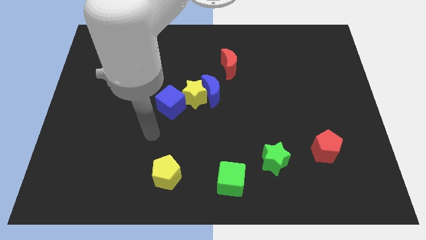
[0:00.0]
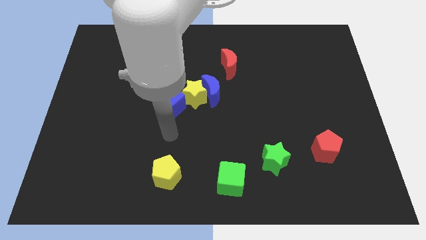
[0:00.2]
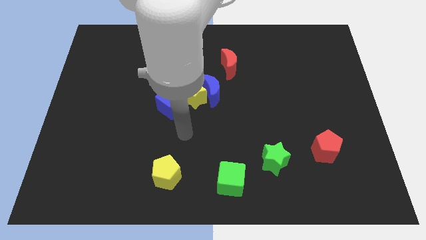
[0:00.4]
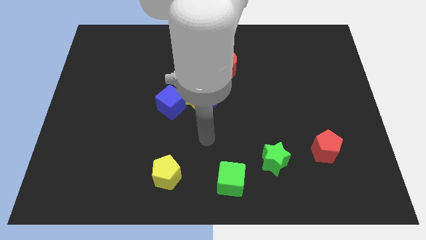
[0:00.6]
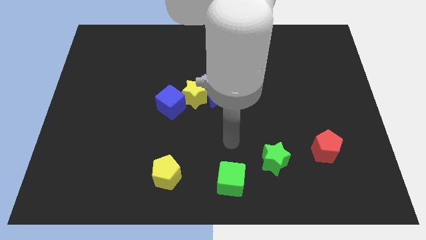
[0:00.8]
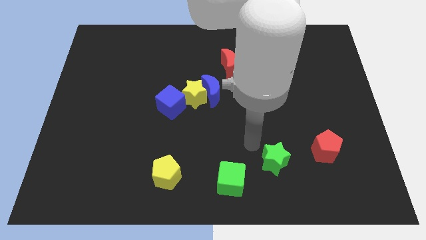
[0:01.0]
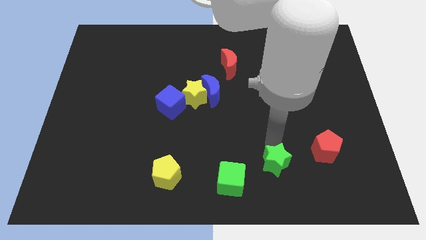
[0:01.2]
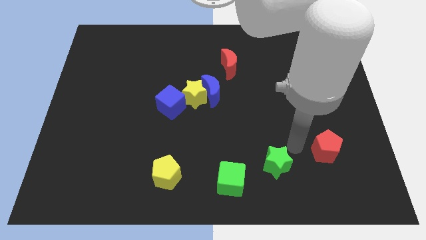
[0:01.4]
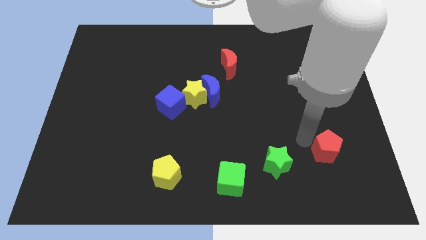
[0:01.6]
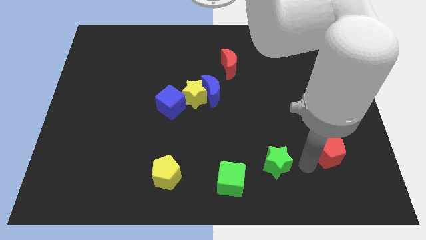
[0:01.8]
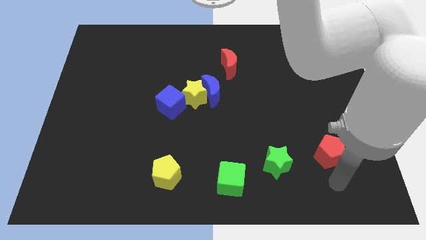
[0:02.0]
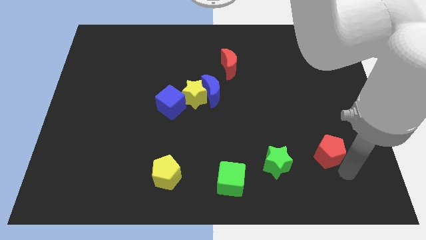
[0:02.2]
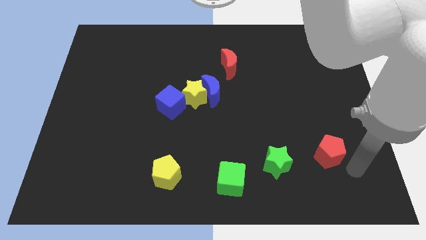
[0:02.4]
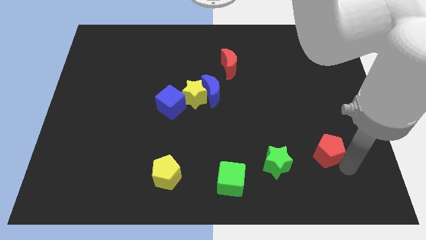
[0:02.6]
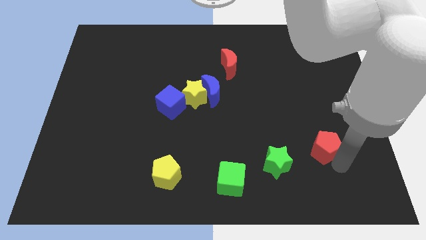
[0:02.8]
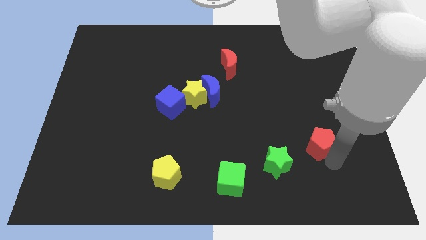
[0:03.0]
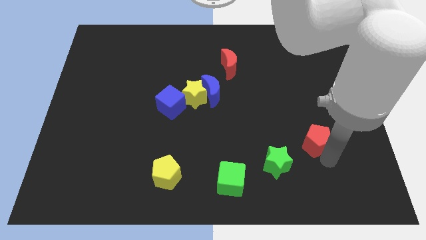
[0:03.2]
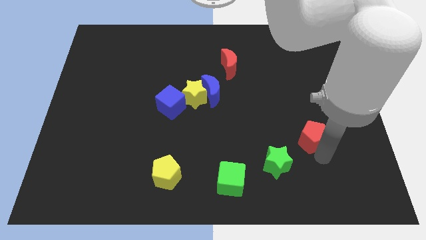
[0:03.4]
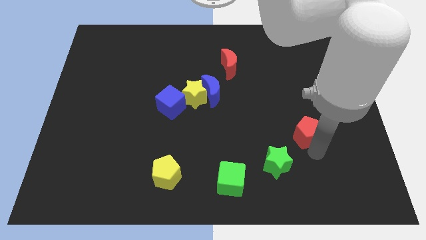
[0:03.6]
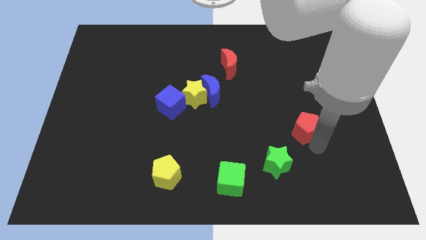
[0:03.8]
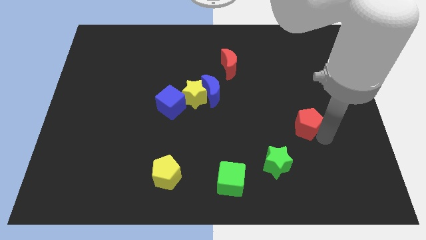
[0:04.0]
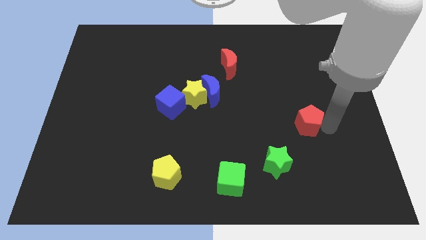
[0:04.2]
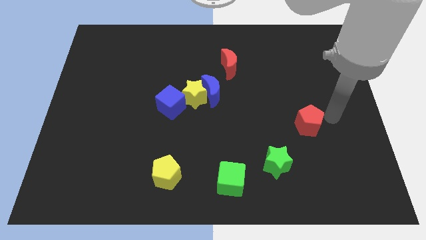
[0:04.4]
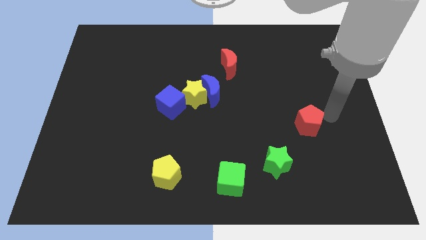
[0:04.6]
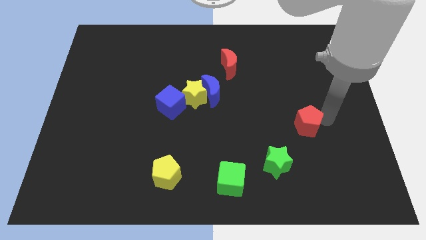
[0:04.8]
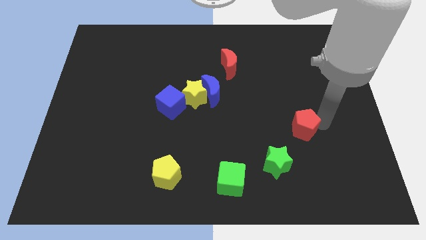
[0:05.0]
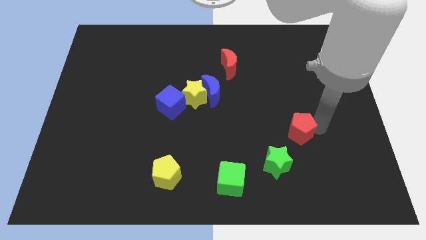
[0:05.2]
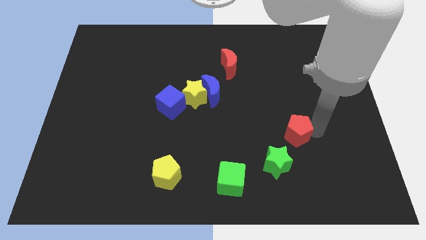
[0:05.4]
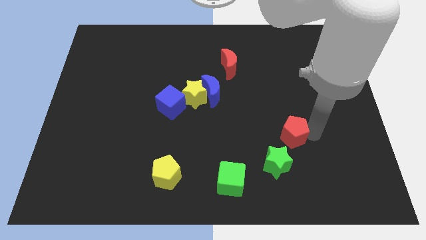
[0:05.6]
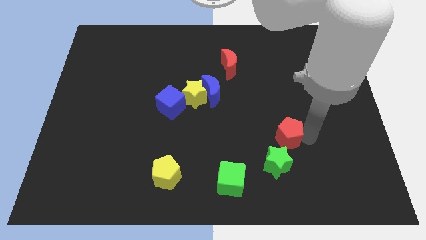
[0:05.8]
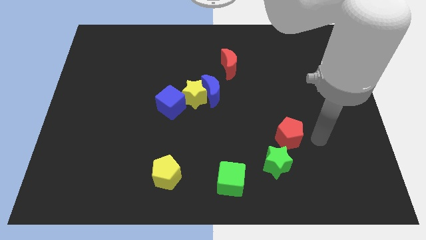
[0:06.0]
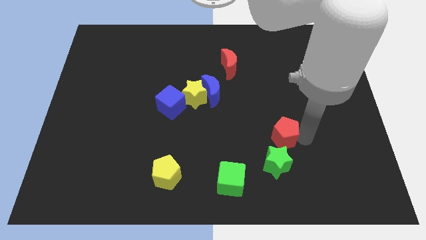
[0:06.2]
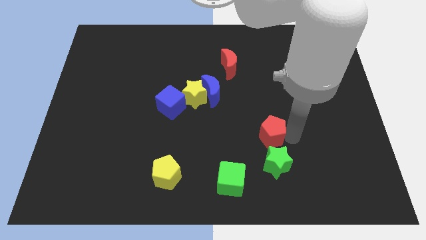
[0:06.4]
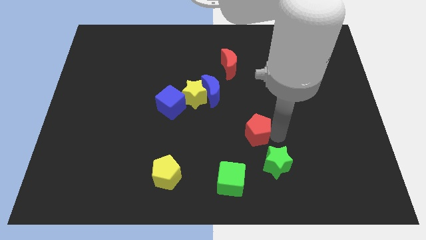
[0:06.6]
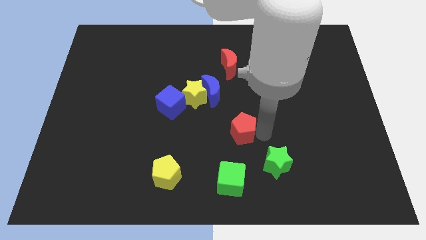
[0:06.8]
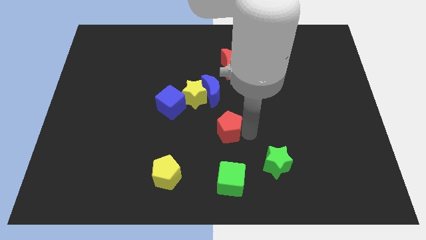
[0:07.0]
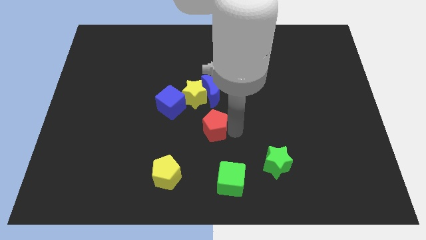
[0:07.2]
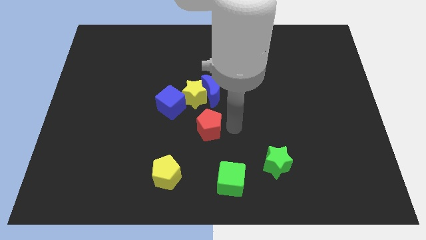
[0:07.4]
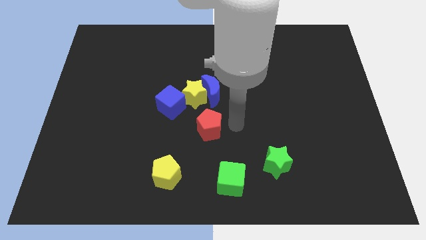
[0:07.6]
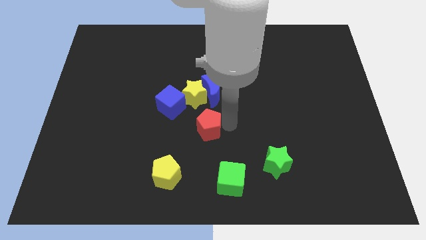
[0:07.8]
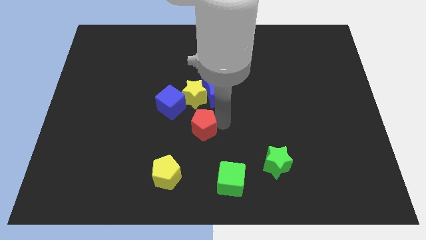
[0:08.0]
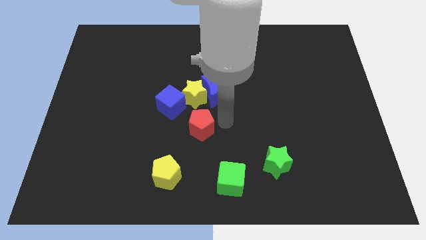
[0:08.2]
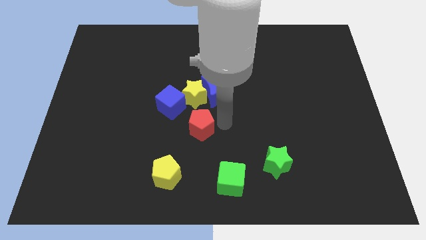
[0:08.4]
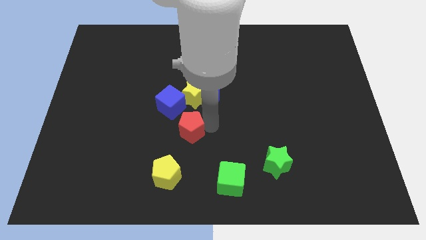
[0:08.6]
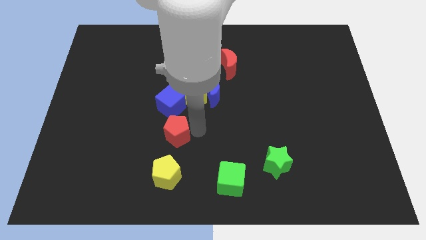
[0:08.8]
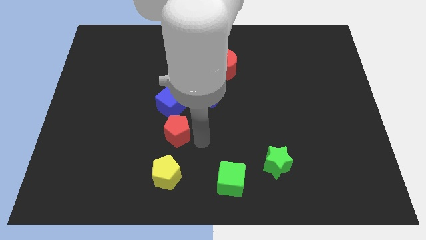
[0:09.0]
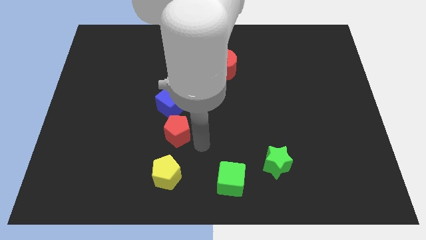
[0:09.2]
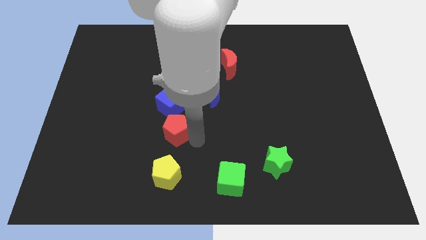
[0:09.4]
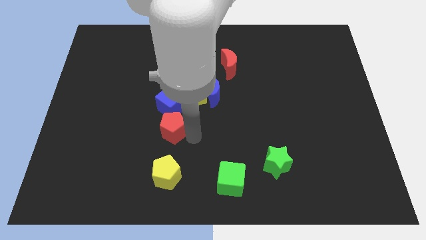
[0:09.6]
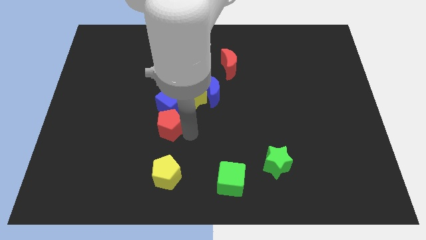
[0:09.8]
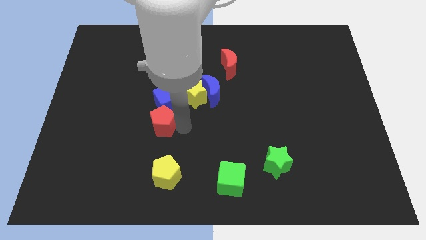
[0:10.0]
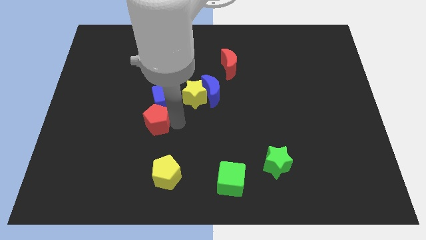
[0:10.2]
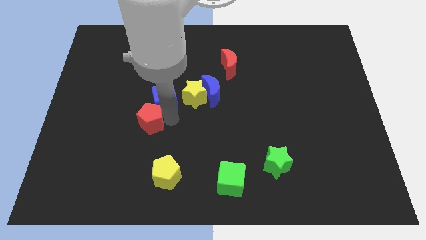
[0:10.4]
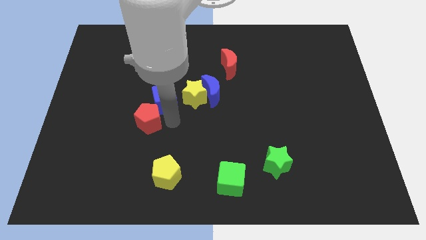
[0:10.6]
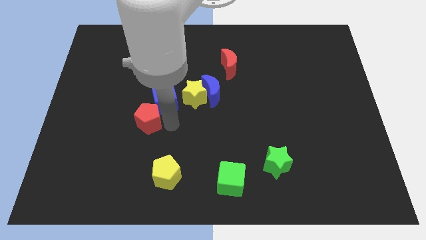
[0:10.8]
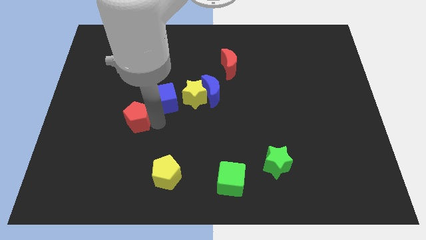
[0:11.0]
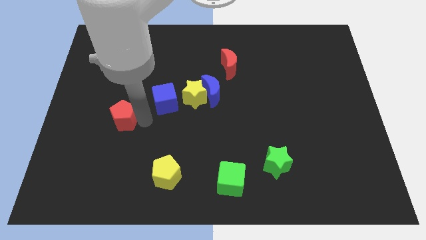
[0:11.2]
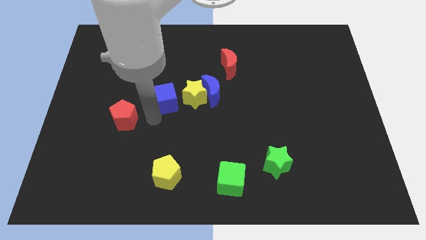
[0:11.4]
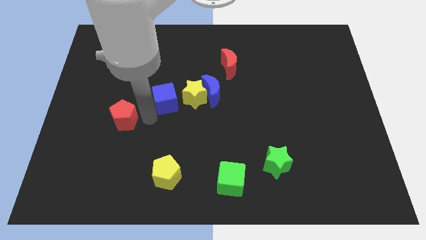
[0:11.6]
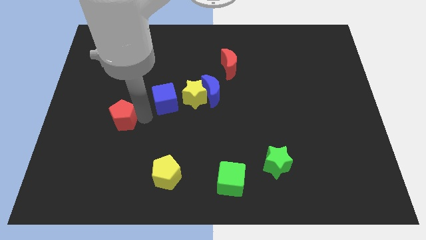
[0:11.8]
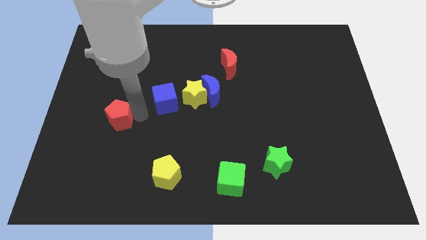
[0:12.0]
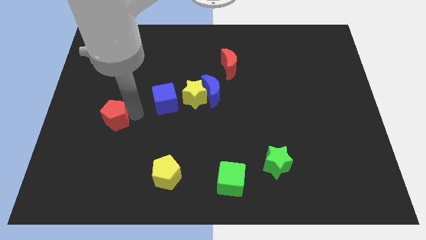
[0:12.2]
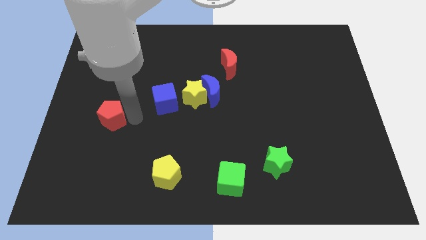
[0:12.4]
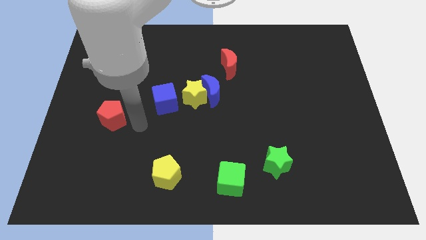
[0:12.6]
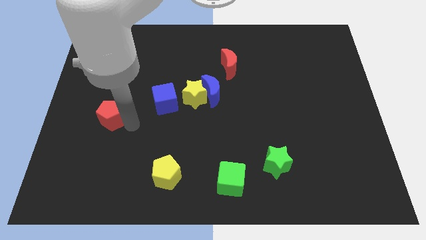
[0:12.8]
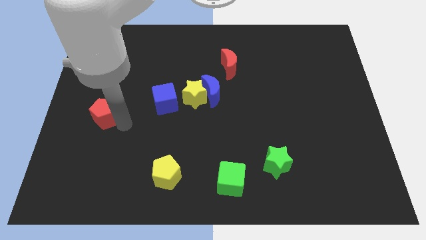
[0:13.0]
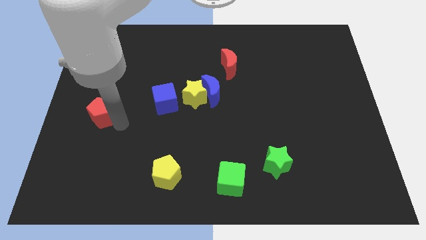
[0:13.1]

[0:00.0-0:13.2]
put the red pentagon to the left side

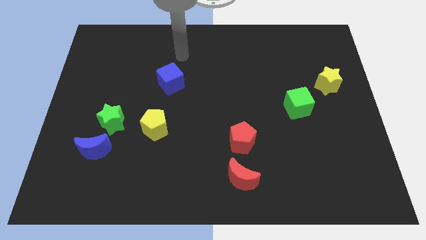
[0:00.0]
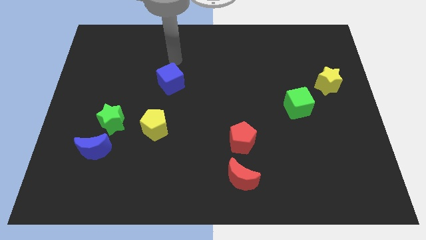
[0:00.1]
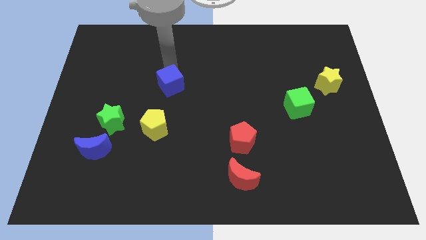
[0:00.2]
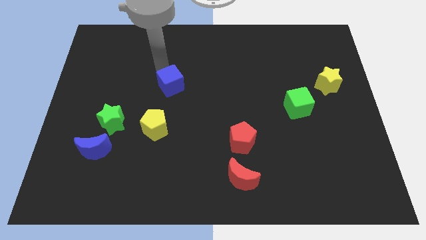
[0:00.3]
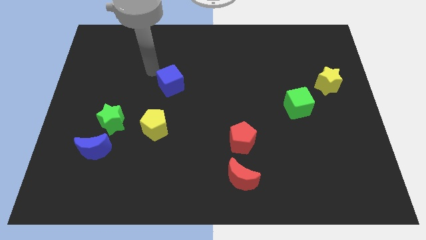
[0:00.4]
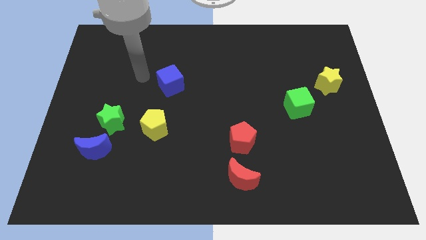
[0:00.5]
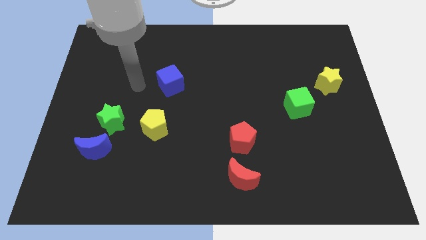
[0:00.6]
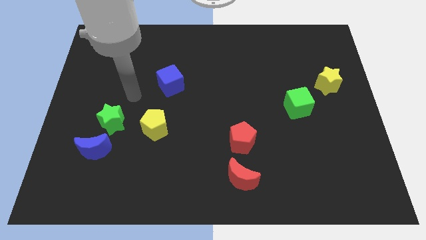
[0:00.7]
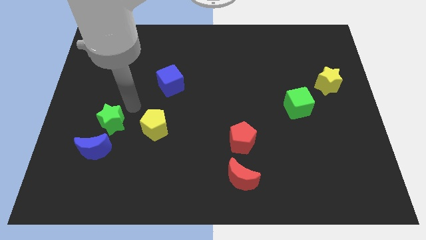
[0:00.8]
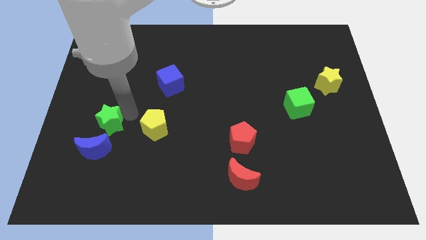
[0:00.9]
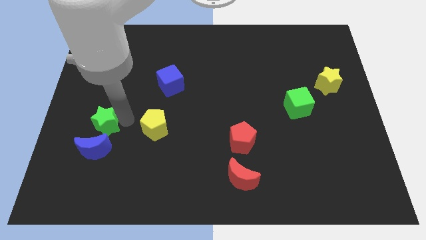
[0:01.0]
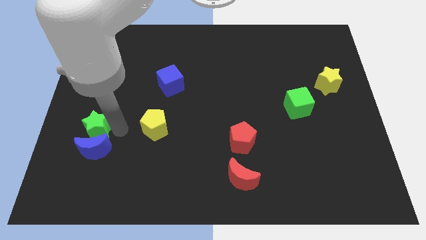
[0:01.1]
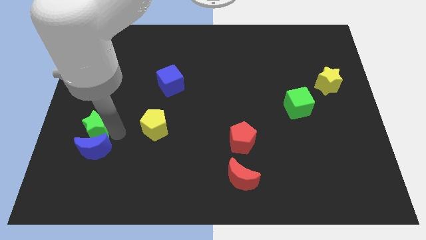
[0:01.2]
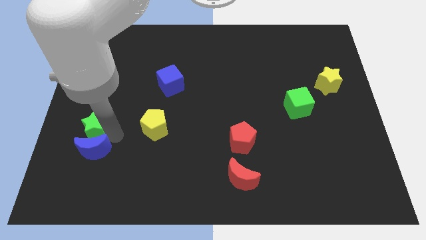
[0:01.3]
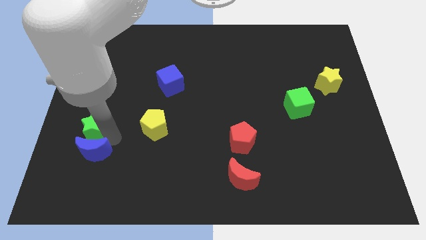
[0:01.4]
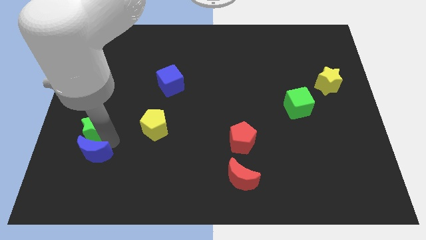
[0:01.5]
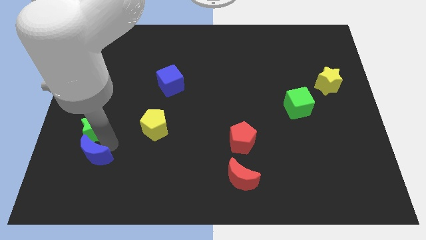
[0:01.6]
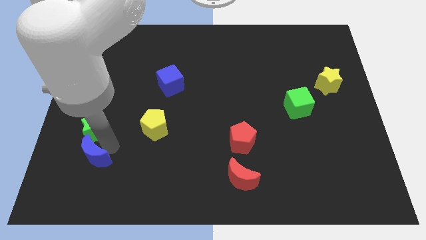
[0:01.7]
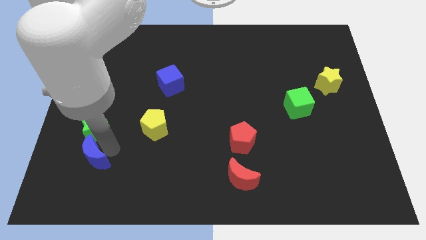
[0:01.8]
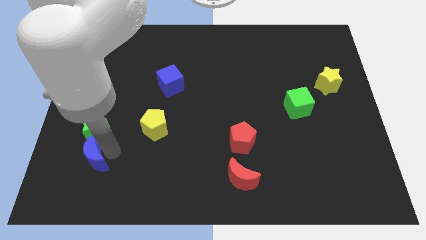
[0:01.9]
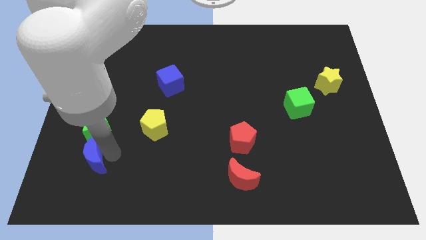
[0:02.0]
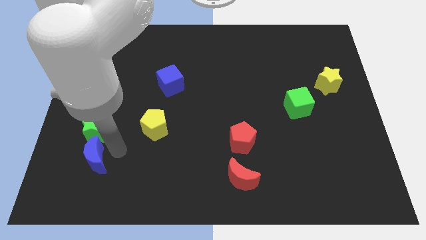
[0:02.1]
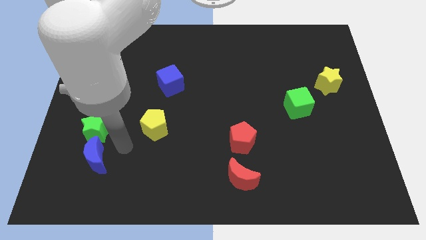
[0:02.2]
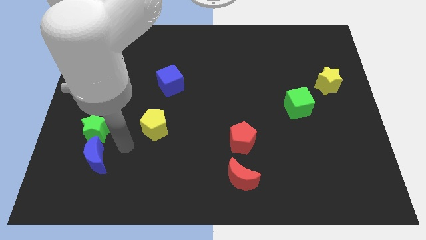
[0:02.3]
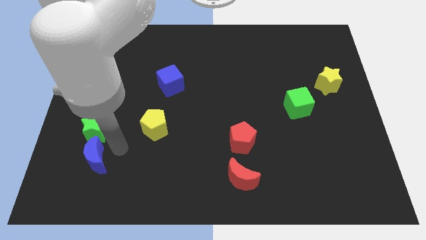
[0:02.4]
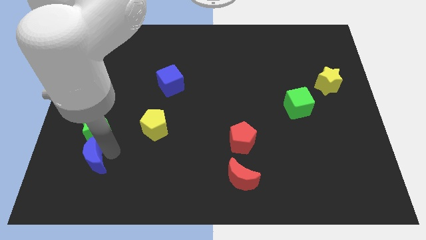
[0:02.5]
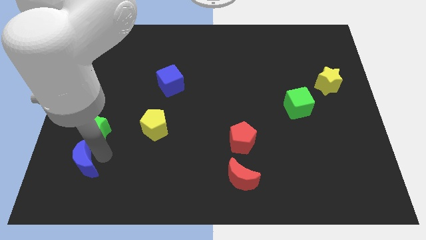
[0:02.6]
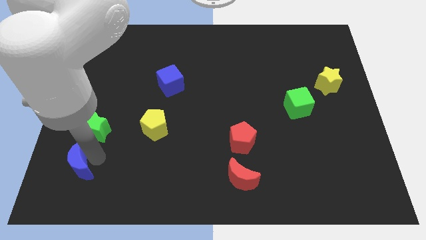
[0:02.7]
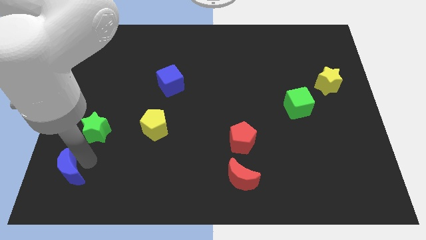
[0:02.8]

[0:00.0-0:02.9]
move the blue moon to the lower left corner
